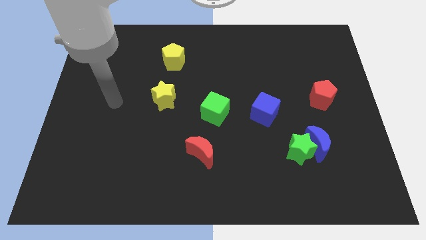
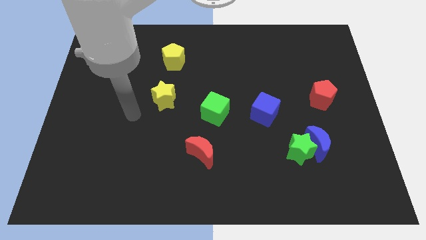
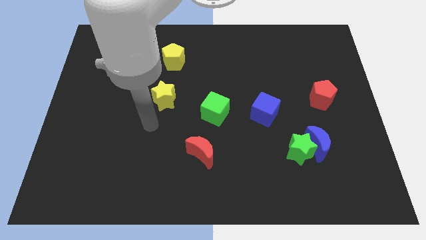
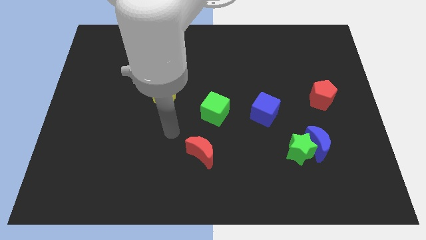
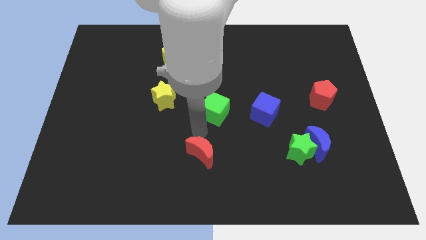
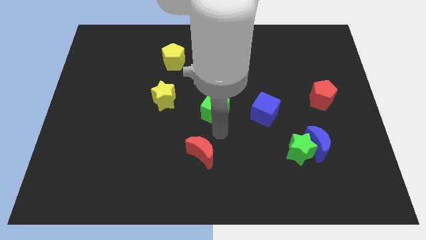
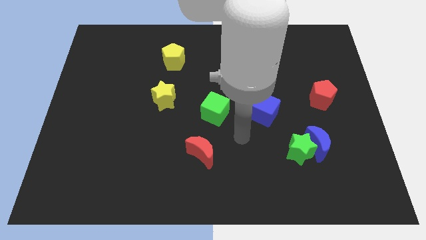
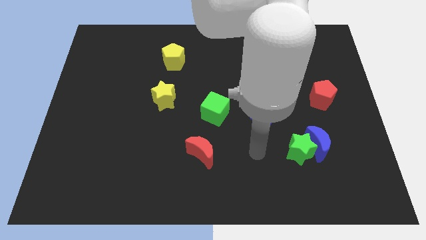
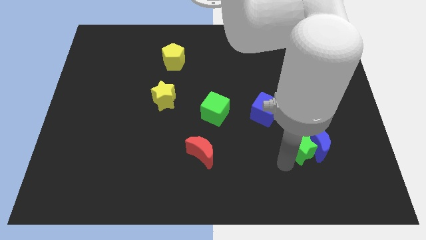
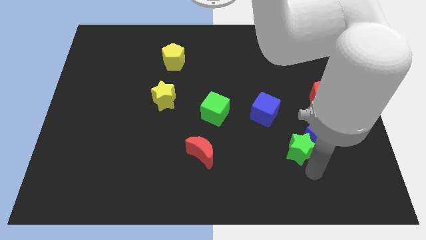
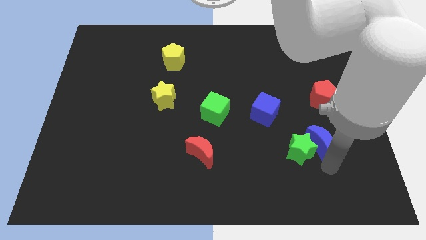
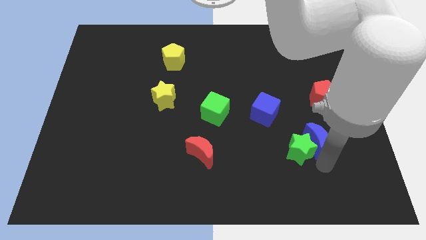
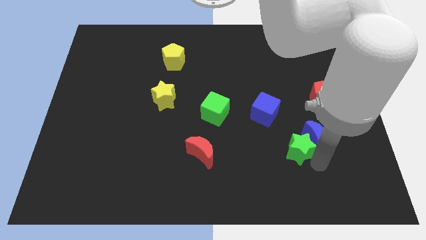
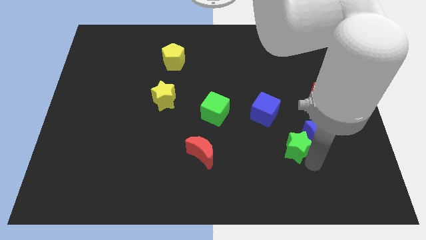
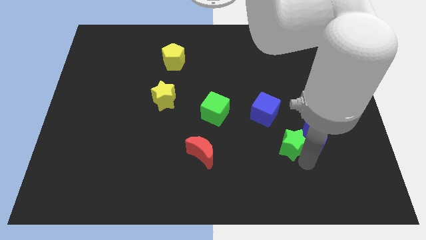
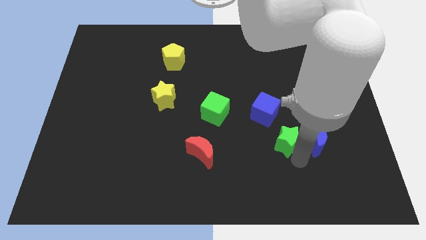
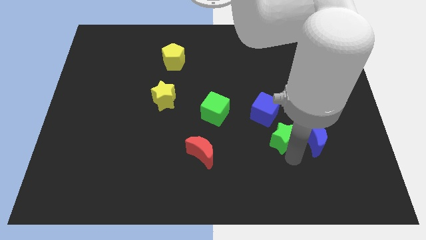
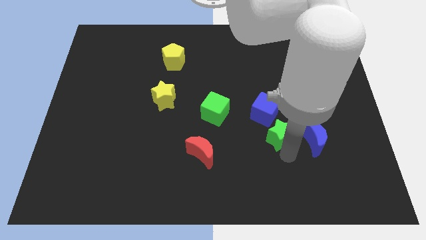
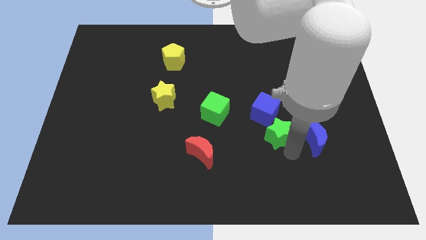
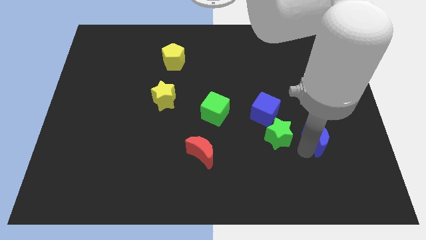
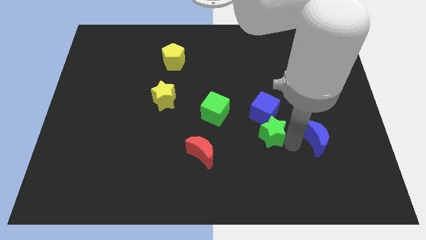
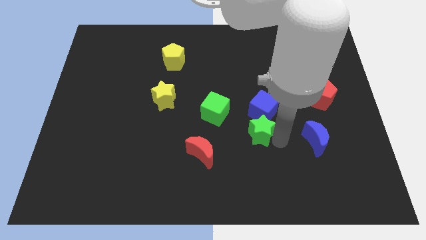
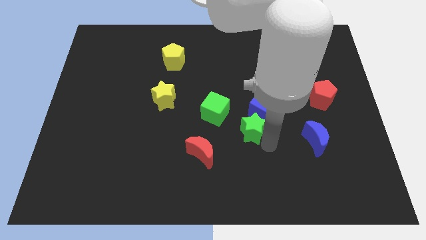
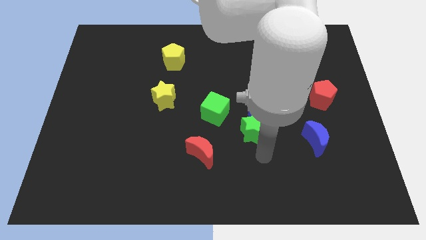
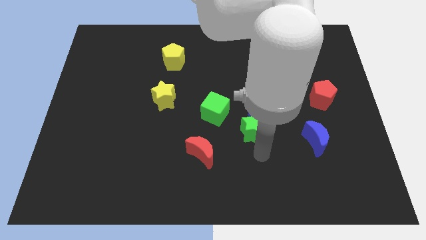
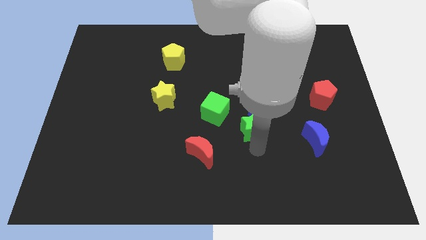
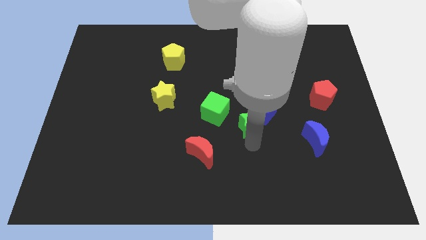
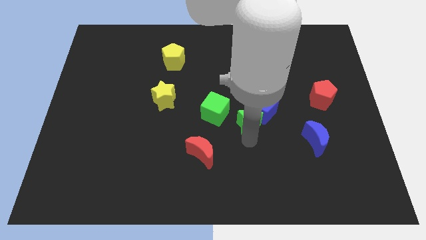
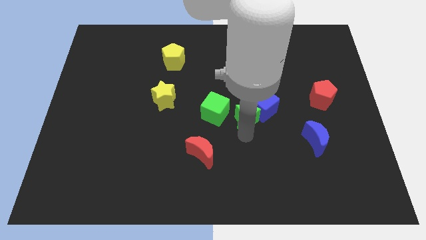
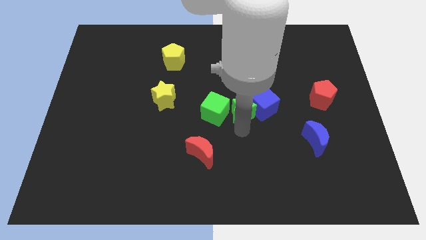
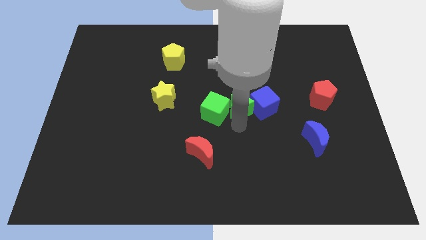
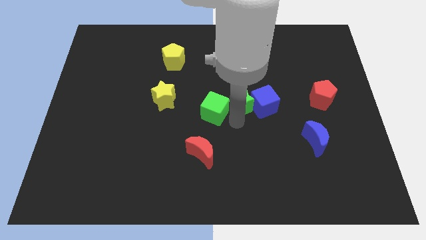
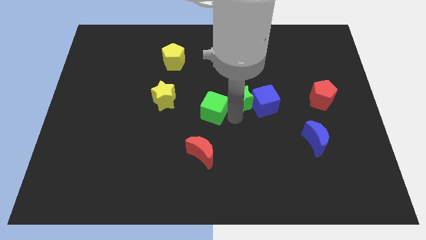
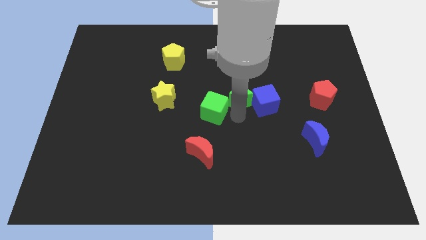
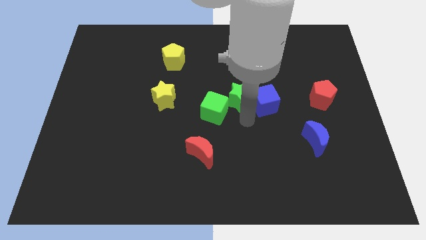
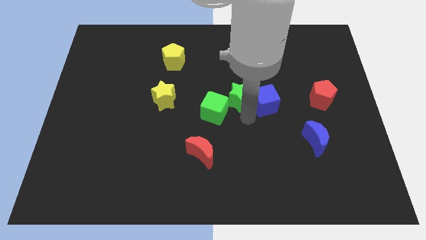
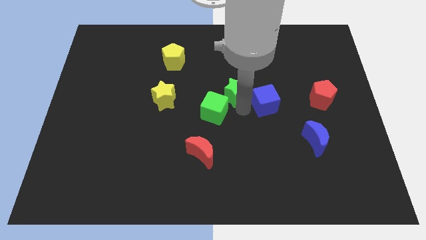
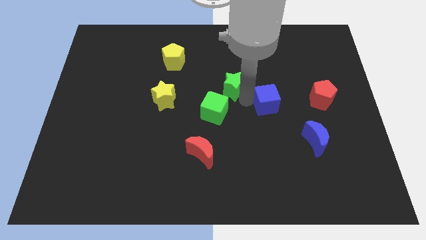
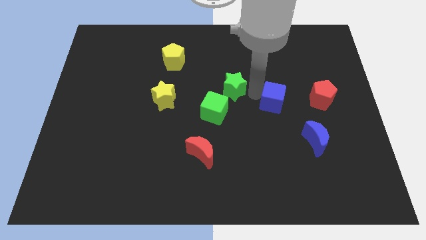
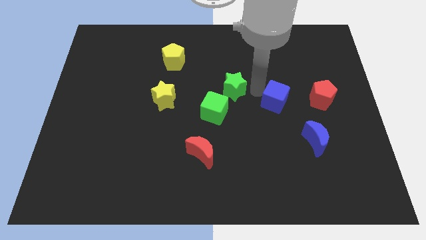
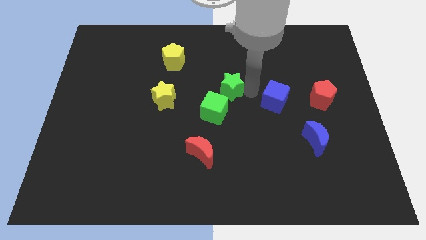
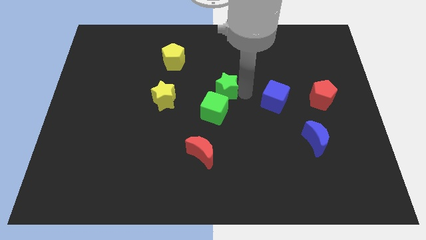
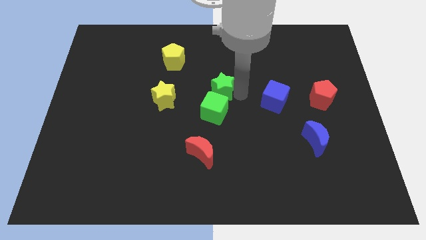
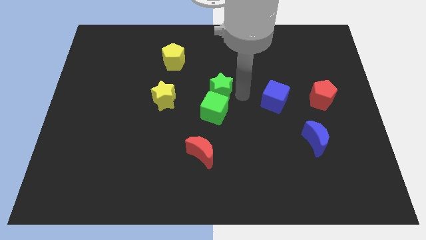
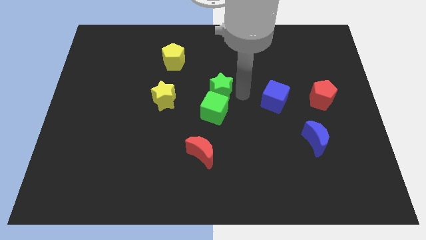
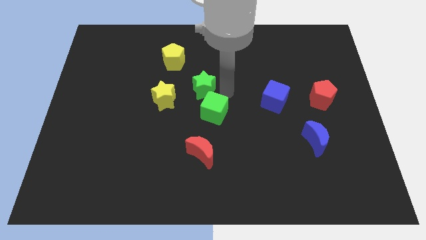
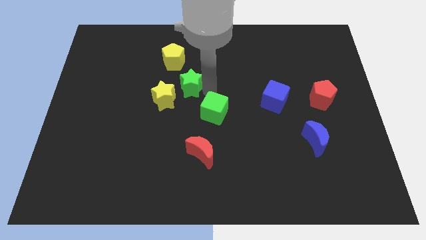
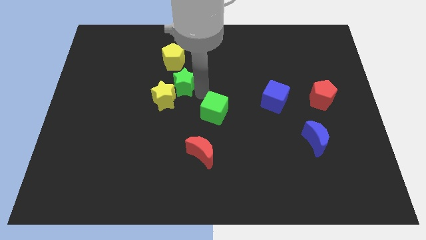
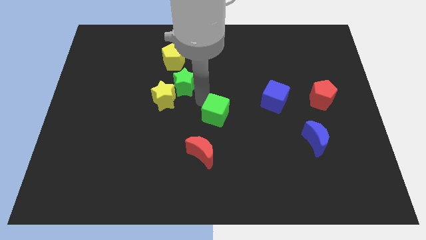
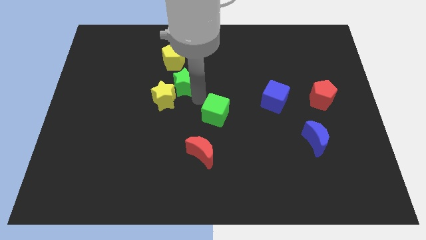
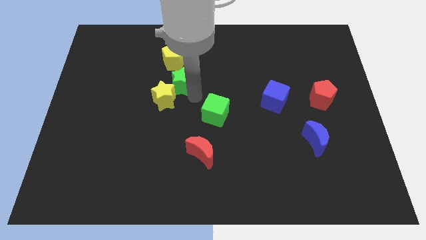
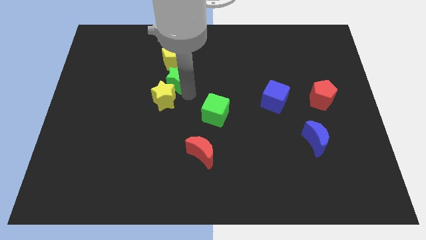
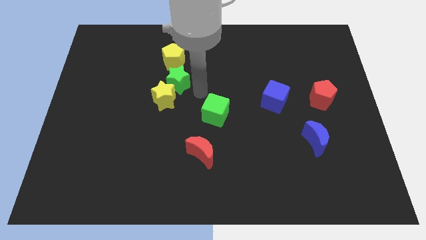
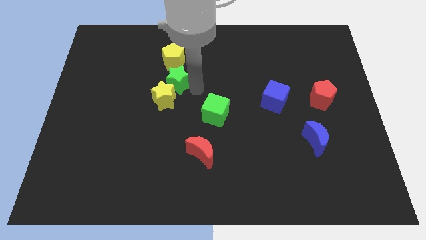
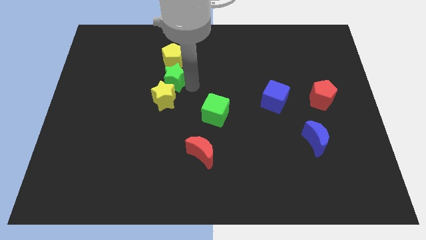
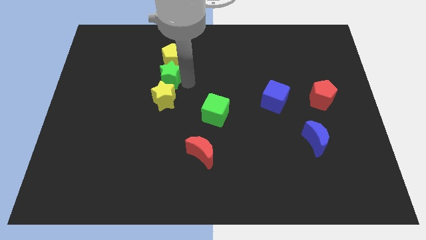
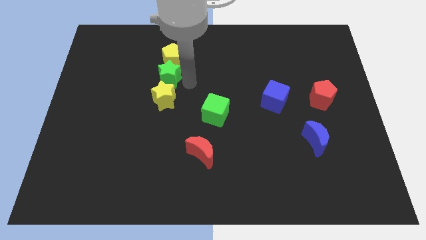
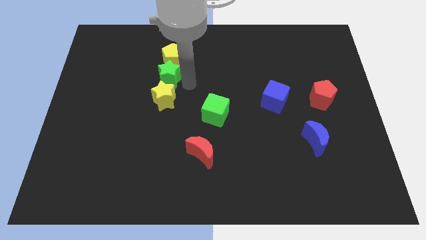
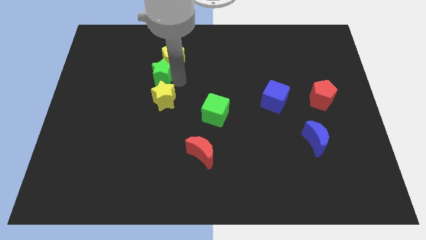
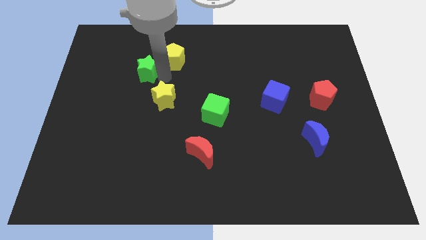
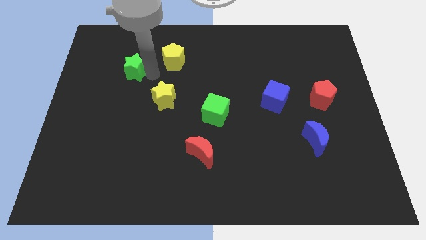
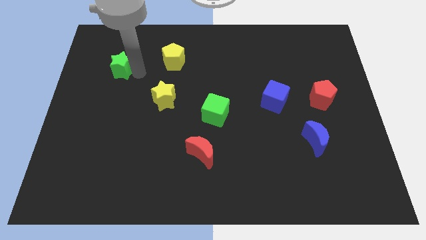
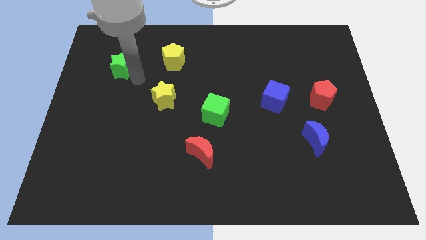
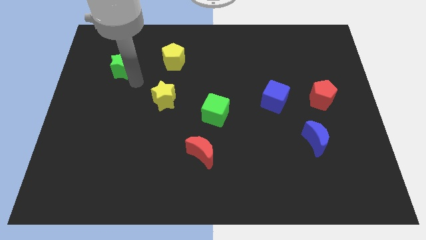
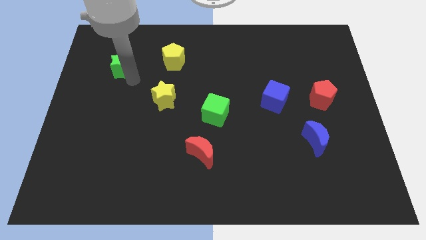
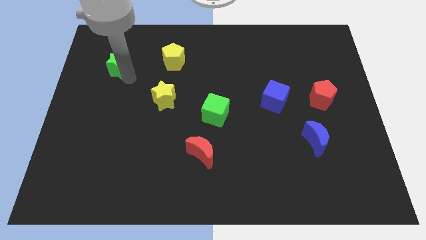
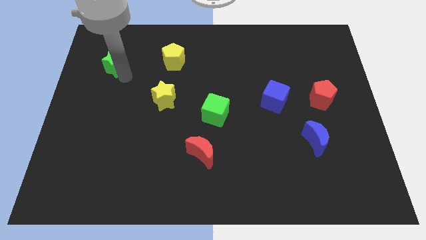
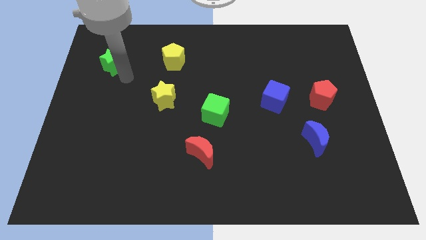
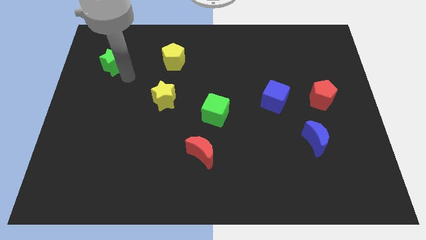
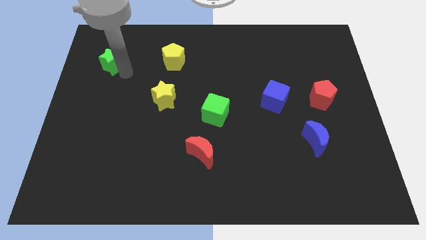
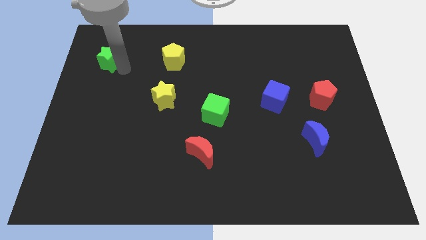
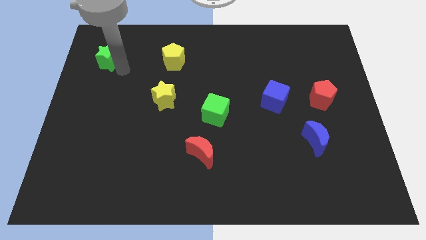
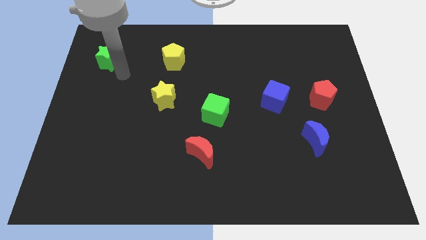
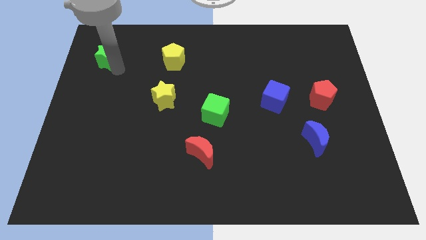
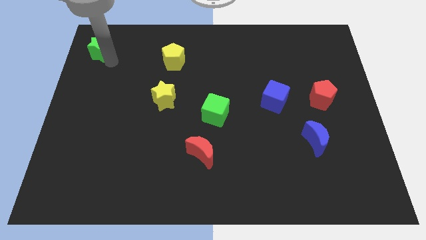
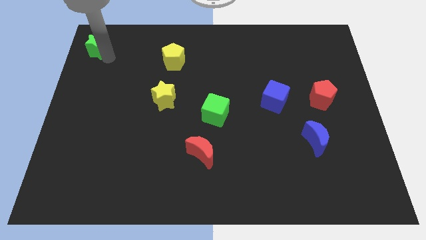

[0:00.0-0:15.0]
put the green star to the top left of the board

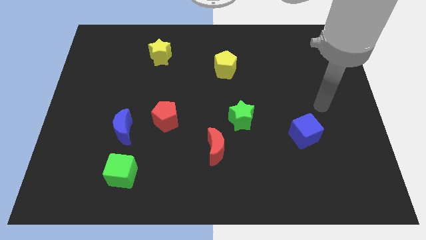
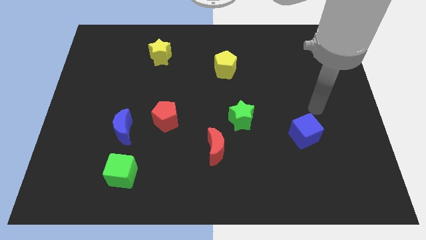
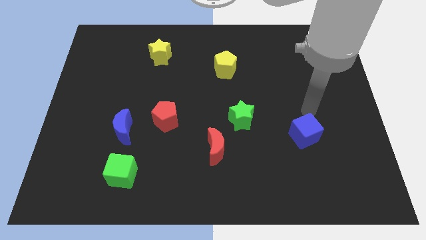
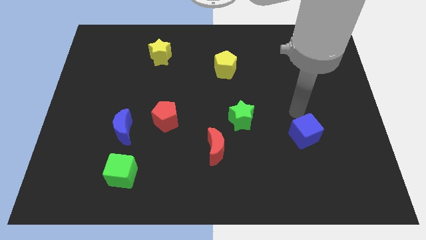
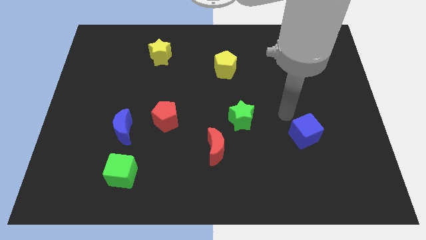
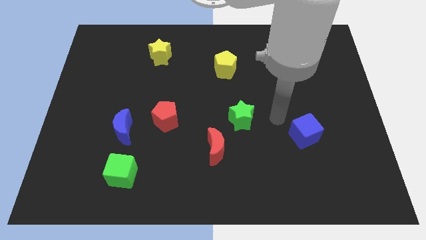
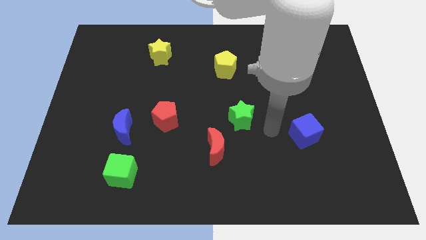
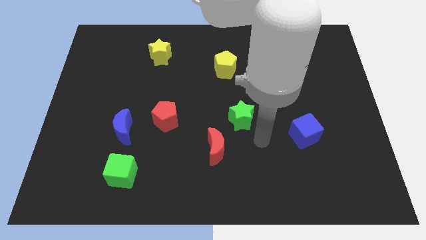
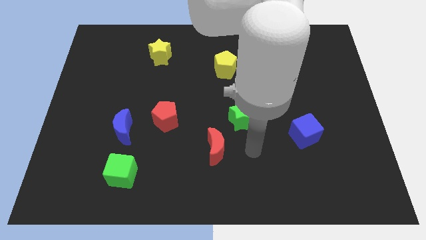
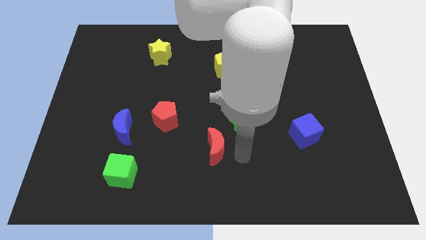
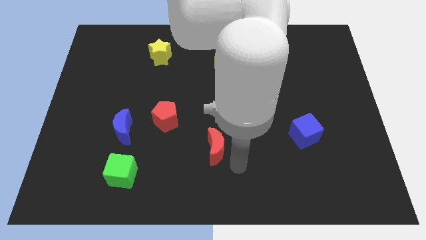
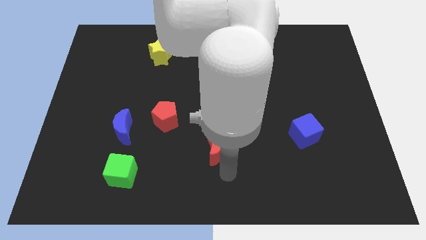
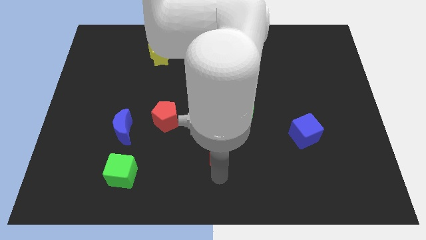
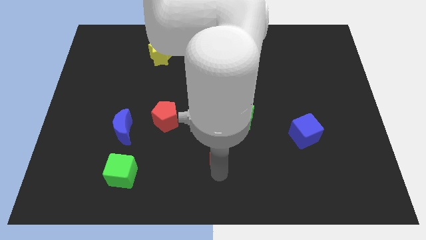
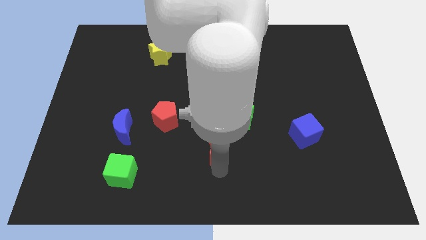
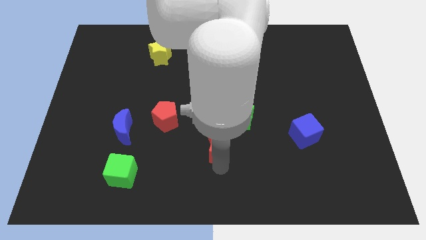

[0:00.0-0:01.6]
put the red moon to the center
